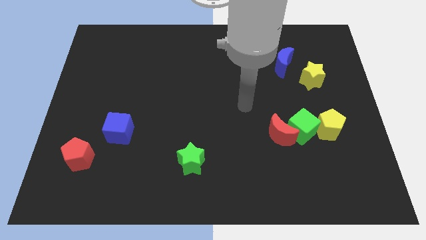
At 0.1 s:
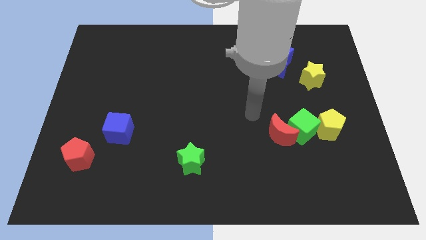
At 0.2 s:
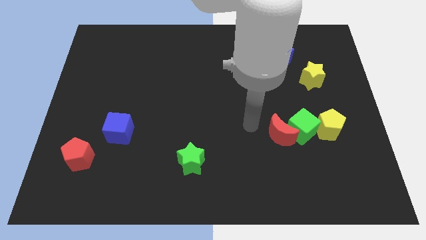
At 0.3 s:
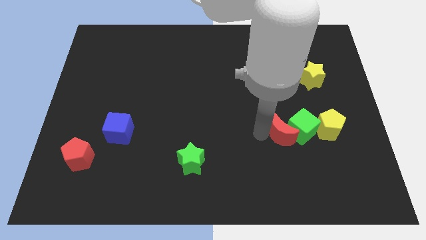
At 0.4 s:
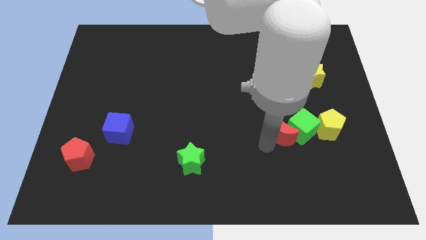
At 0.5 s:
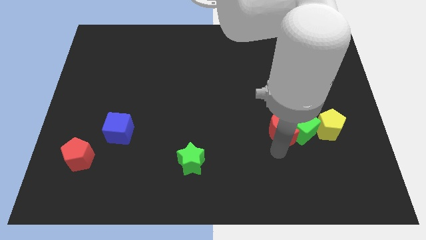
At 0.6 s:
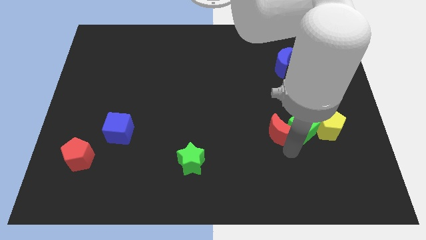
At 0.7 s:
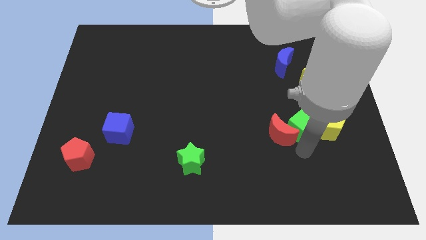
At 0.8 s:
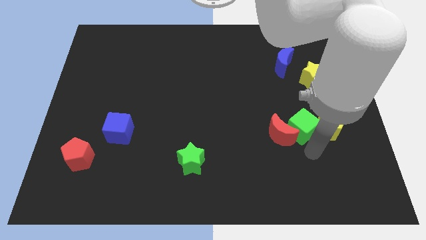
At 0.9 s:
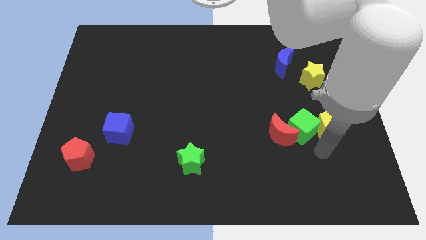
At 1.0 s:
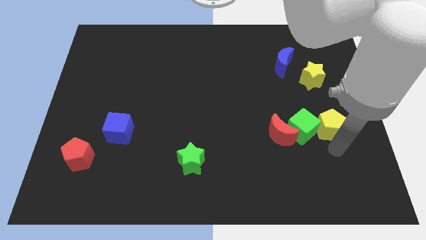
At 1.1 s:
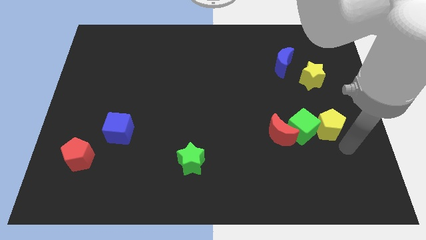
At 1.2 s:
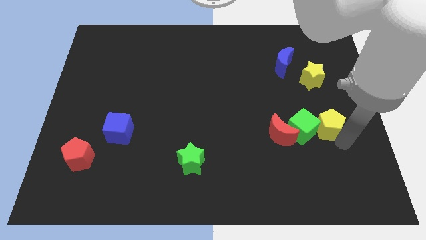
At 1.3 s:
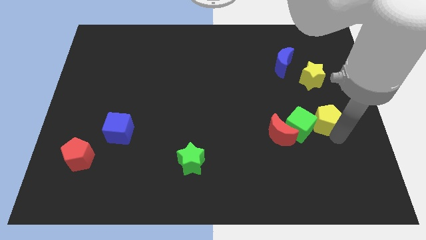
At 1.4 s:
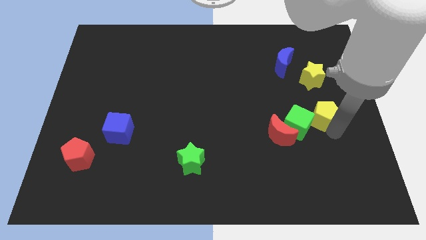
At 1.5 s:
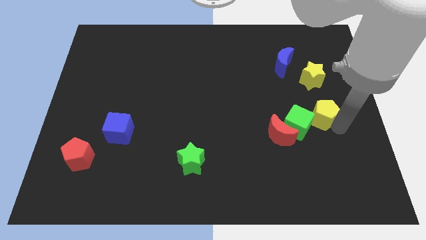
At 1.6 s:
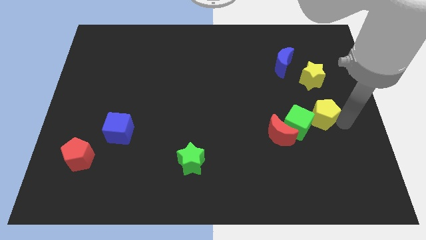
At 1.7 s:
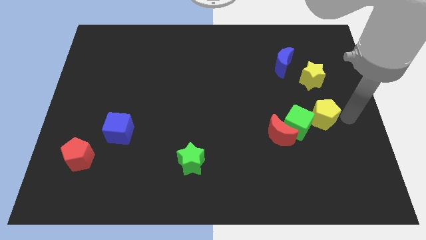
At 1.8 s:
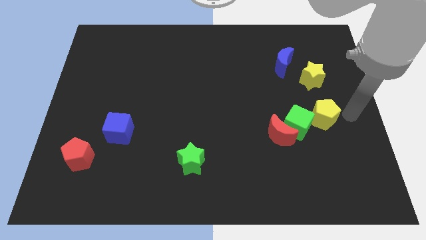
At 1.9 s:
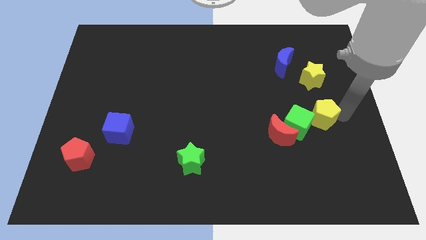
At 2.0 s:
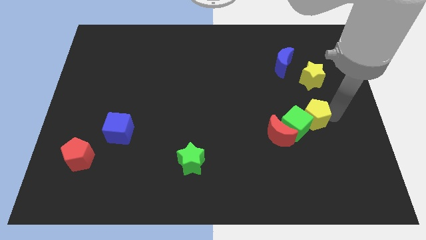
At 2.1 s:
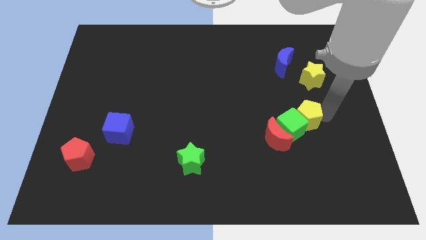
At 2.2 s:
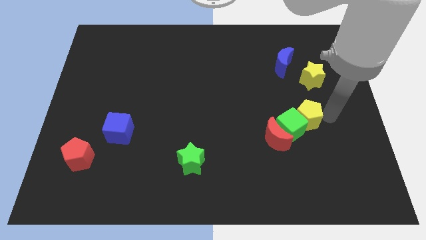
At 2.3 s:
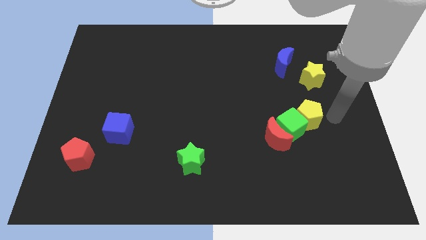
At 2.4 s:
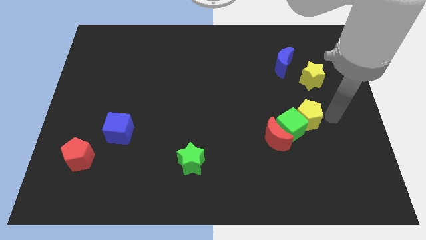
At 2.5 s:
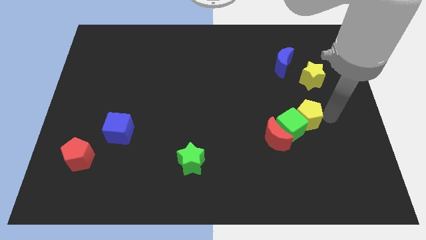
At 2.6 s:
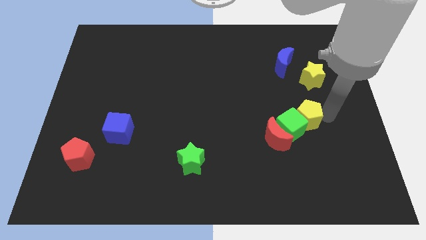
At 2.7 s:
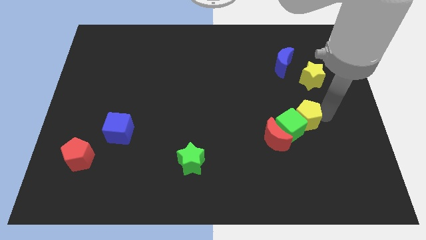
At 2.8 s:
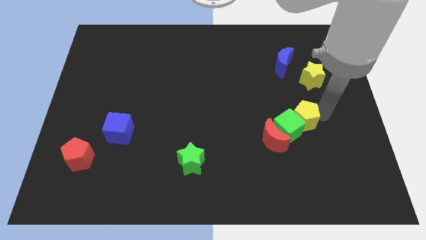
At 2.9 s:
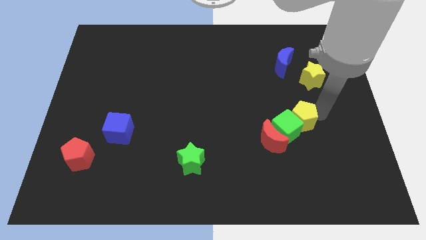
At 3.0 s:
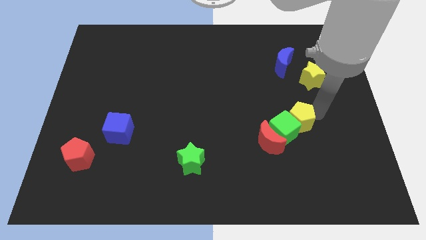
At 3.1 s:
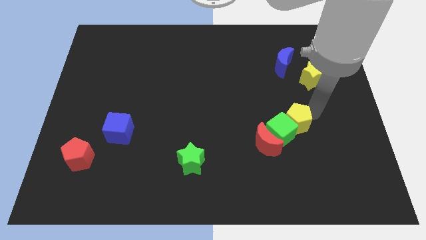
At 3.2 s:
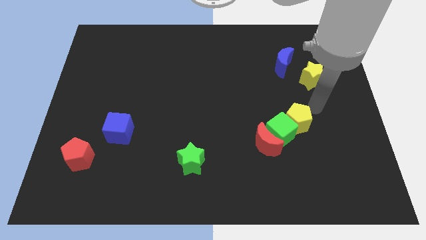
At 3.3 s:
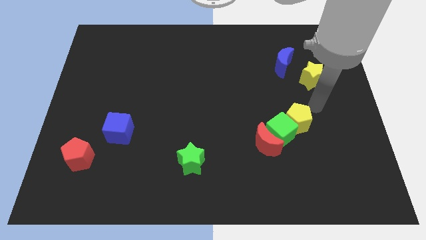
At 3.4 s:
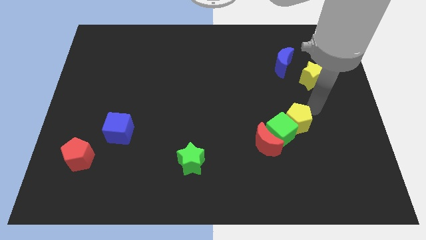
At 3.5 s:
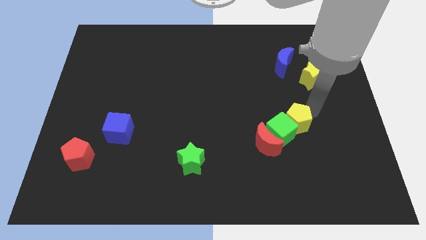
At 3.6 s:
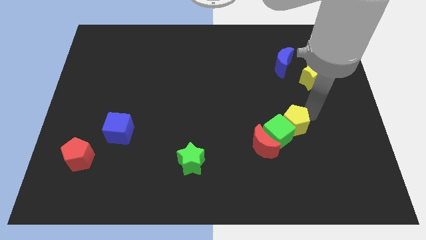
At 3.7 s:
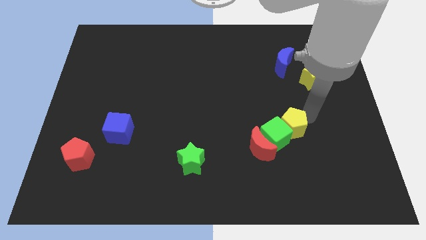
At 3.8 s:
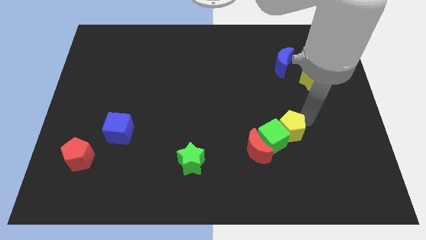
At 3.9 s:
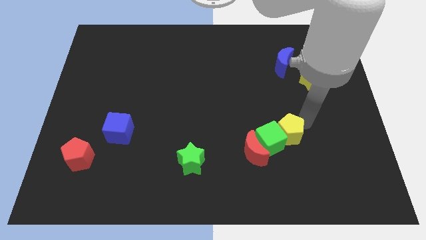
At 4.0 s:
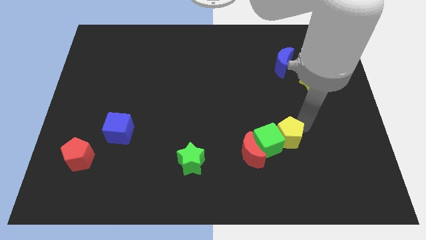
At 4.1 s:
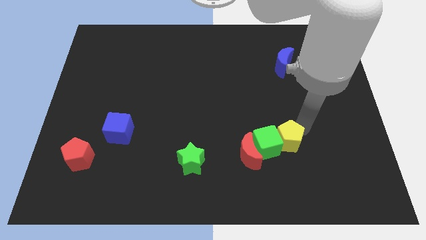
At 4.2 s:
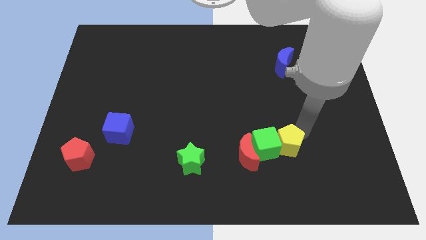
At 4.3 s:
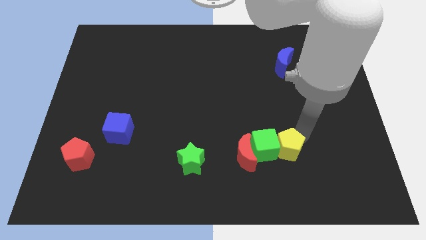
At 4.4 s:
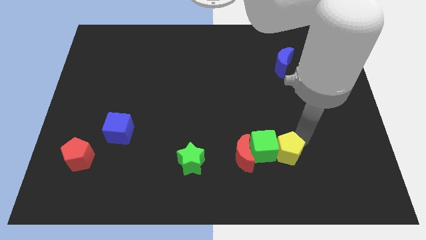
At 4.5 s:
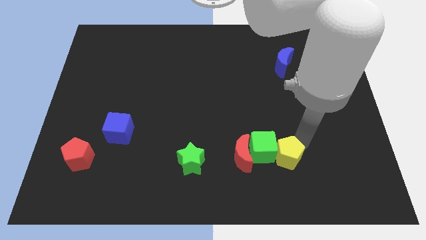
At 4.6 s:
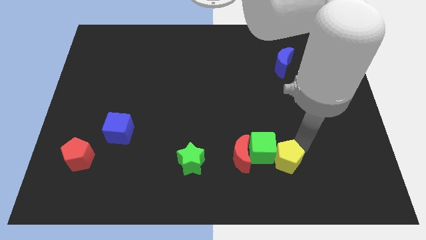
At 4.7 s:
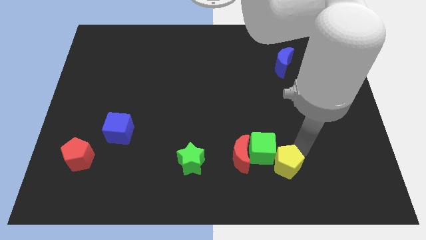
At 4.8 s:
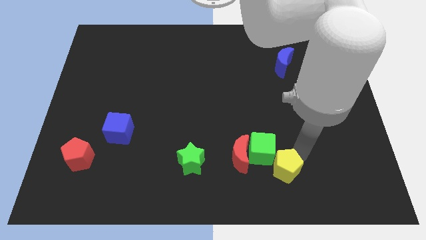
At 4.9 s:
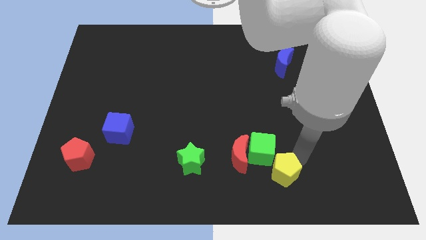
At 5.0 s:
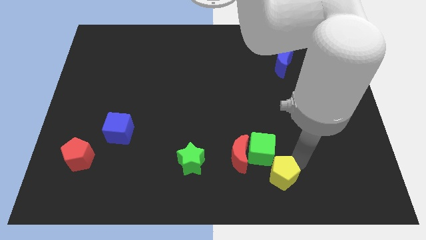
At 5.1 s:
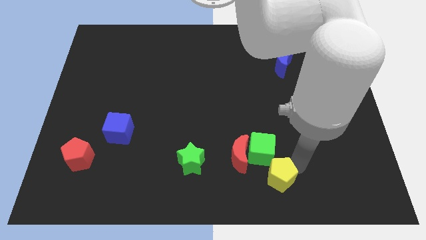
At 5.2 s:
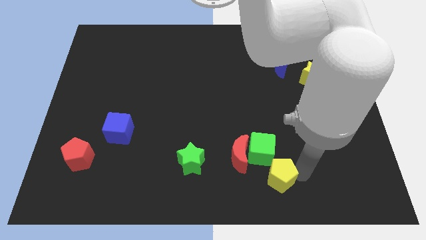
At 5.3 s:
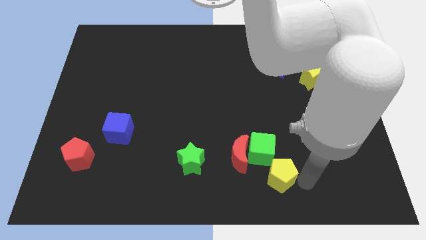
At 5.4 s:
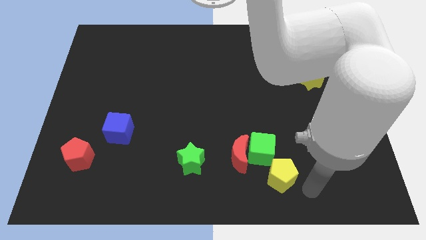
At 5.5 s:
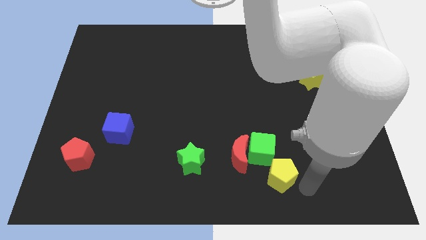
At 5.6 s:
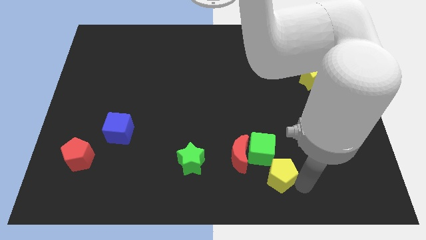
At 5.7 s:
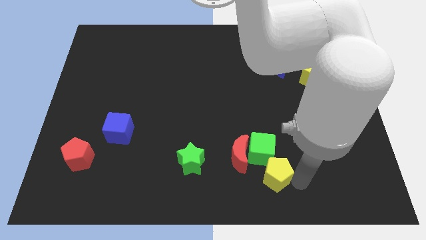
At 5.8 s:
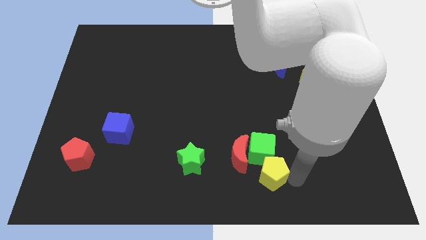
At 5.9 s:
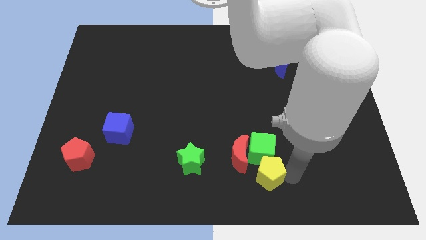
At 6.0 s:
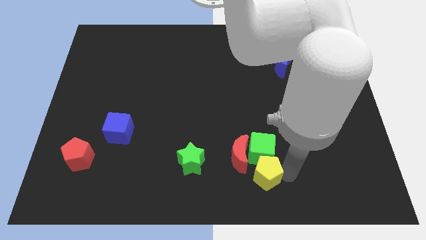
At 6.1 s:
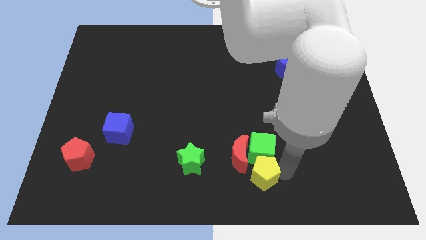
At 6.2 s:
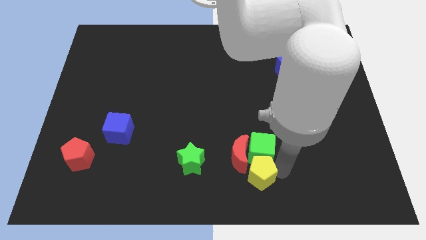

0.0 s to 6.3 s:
slide the yellow pentagon towards the red moon

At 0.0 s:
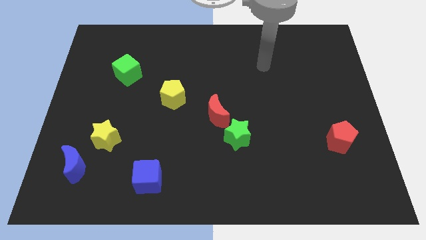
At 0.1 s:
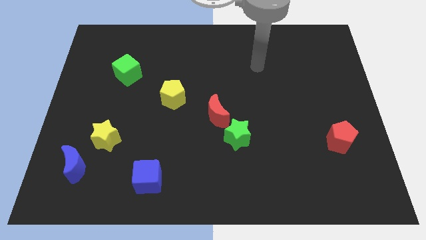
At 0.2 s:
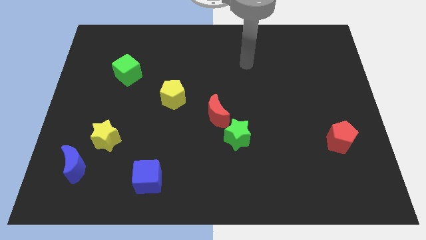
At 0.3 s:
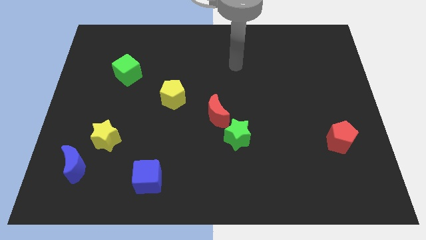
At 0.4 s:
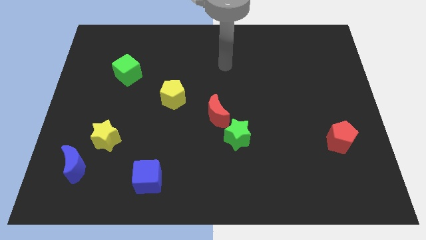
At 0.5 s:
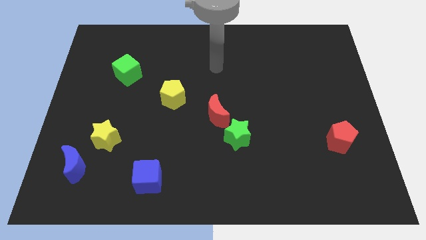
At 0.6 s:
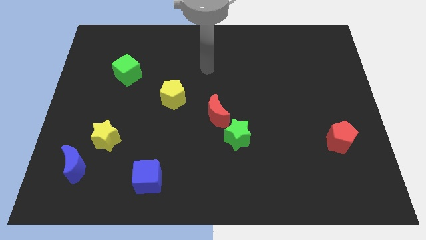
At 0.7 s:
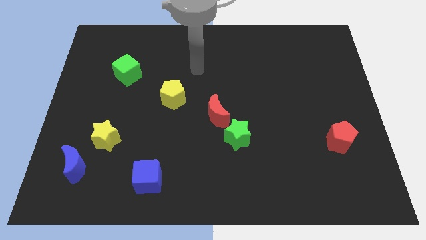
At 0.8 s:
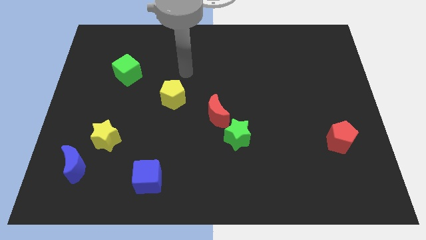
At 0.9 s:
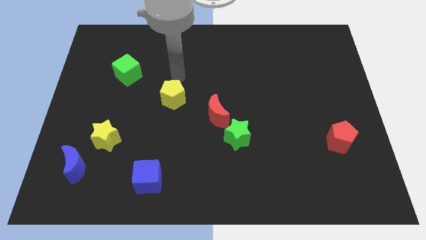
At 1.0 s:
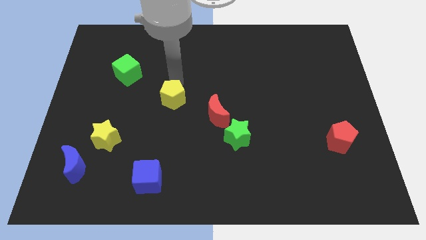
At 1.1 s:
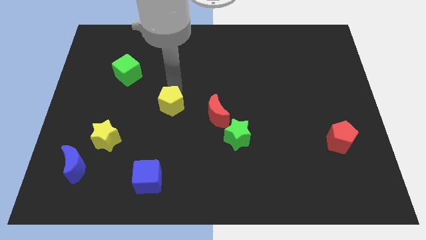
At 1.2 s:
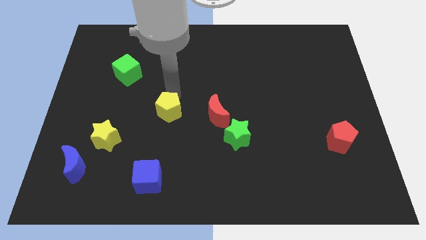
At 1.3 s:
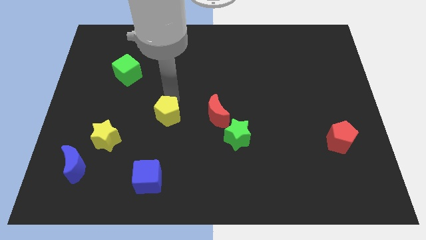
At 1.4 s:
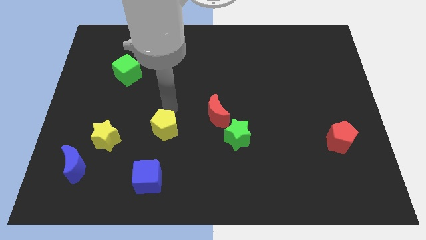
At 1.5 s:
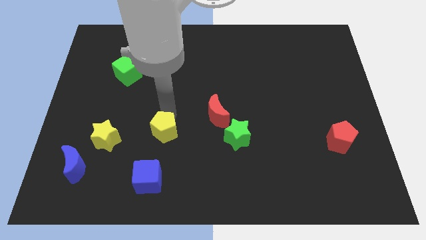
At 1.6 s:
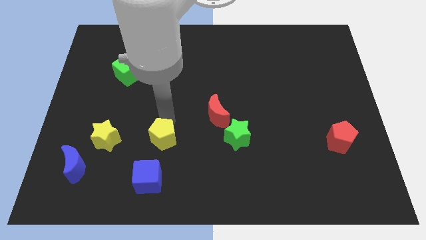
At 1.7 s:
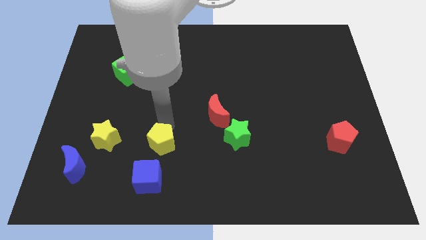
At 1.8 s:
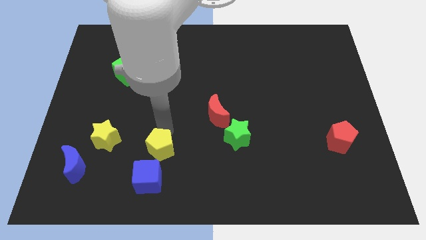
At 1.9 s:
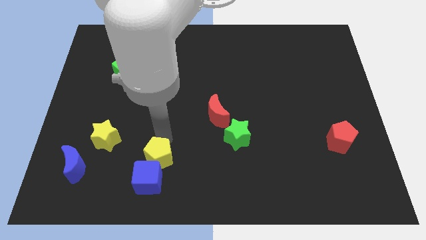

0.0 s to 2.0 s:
slide the yellow pentagon close to the blue cube
